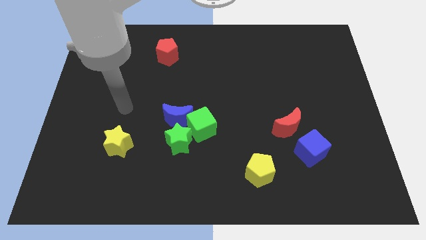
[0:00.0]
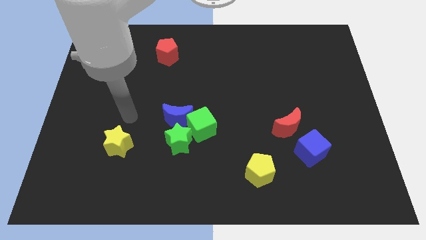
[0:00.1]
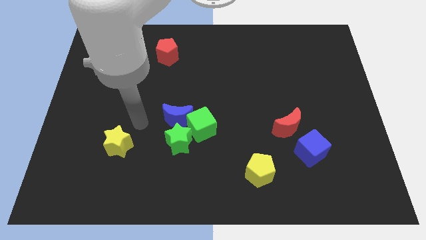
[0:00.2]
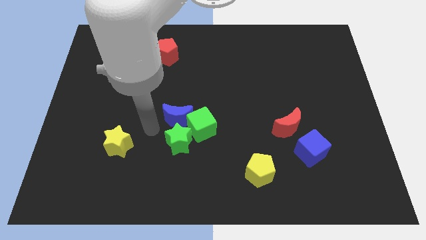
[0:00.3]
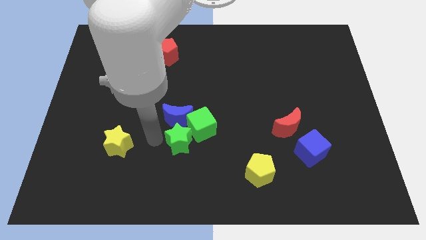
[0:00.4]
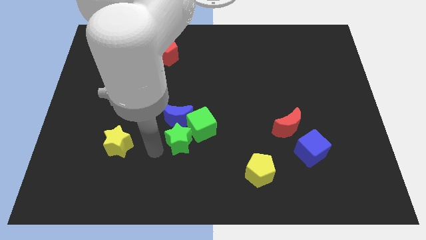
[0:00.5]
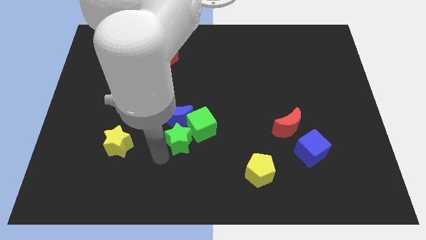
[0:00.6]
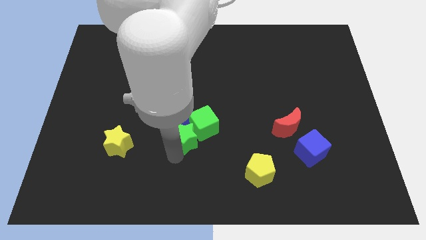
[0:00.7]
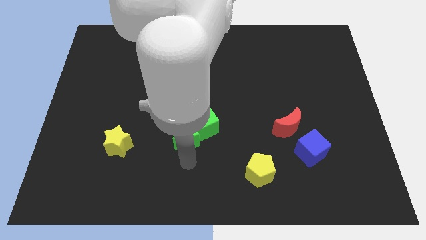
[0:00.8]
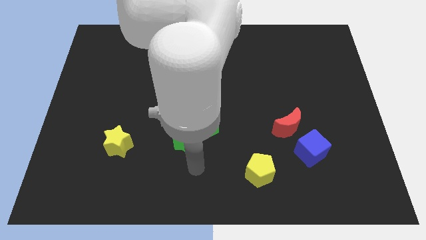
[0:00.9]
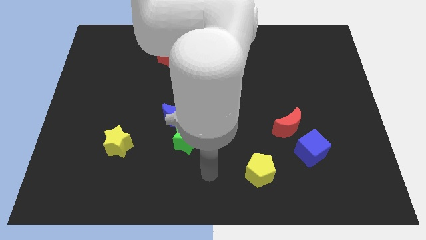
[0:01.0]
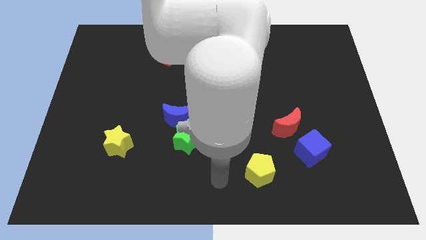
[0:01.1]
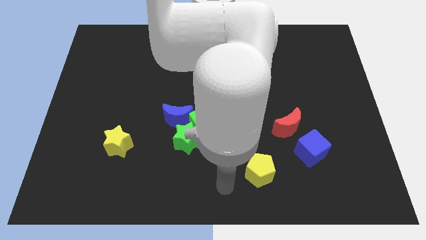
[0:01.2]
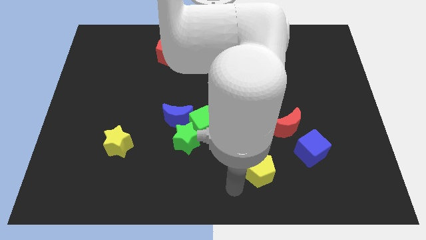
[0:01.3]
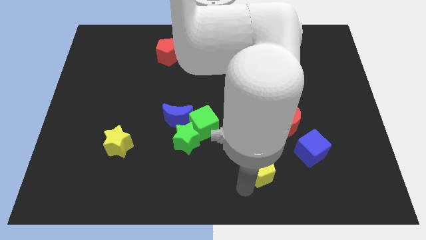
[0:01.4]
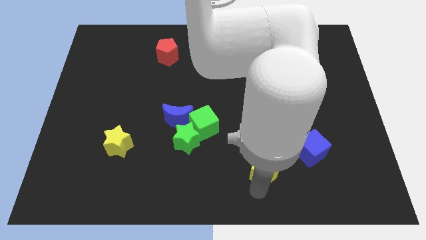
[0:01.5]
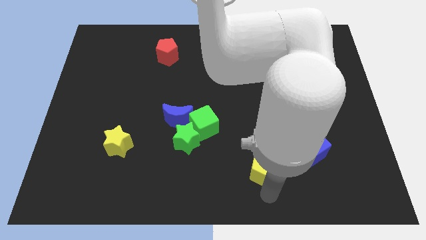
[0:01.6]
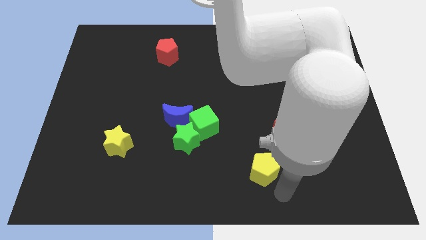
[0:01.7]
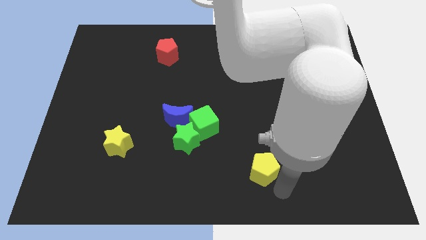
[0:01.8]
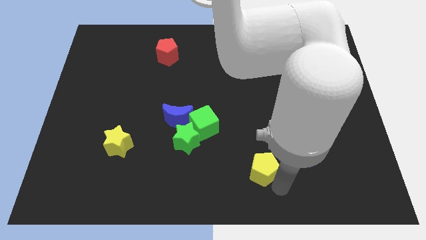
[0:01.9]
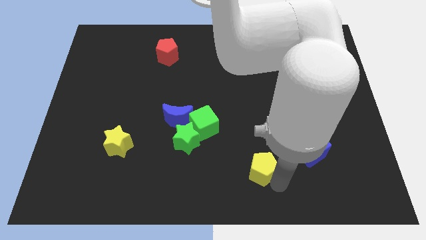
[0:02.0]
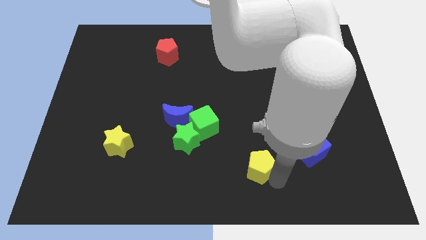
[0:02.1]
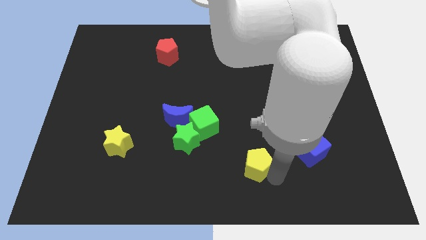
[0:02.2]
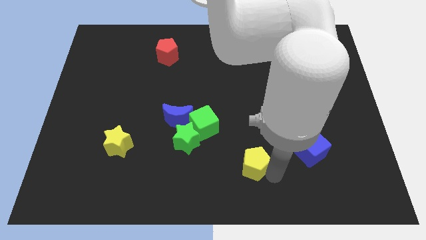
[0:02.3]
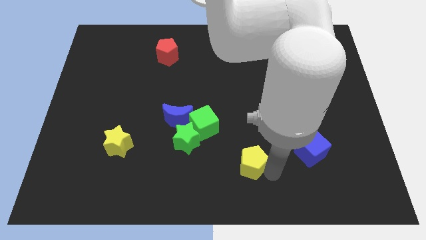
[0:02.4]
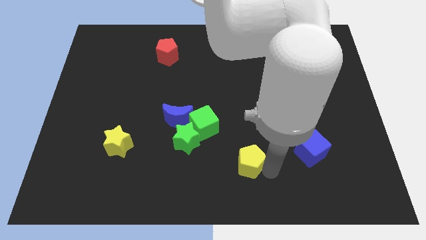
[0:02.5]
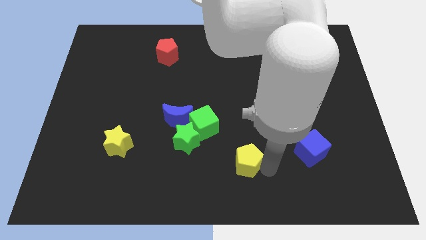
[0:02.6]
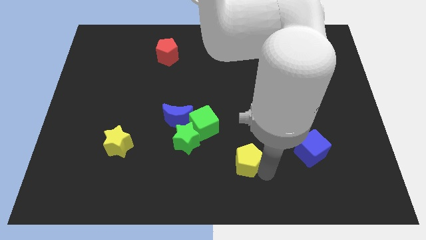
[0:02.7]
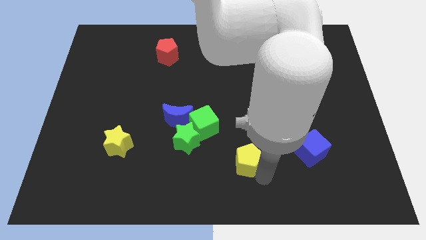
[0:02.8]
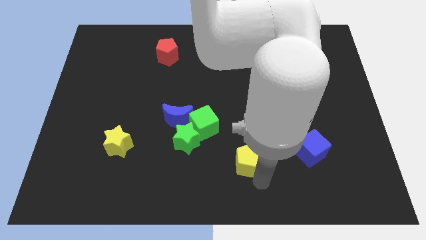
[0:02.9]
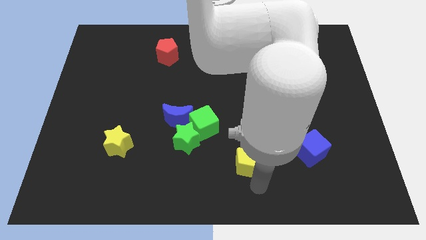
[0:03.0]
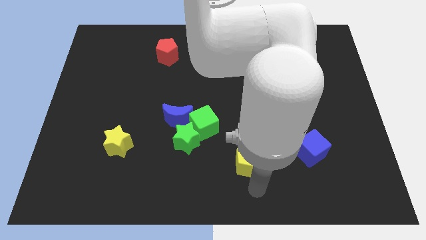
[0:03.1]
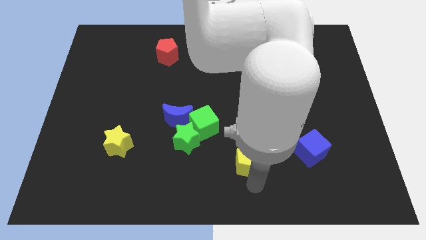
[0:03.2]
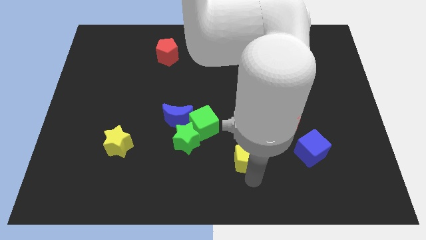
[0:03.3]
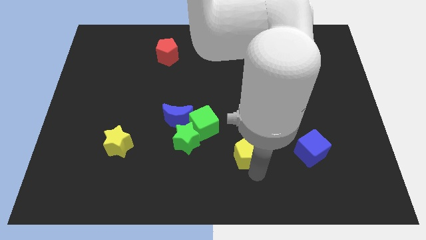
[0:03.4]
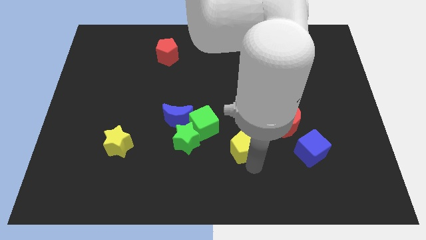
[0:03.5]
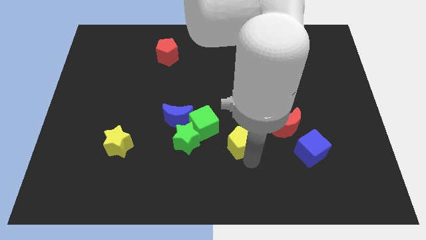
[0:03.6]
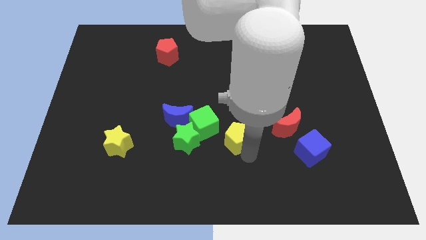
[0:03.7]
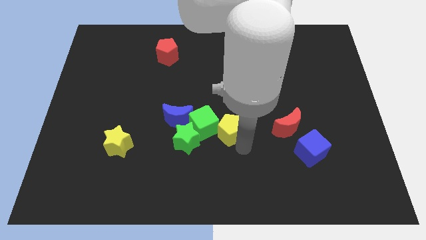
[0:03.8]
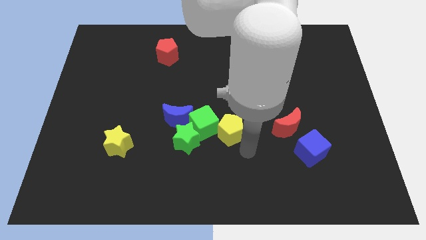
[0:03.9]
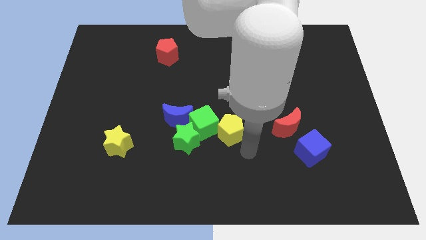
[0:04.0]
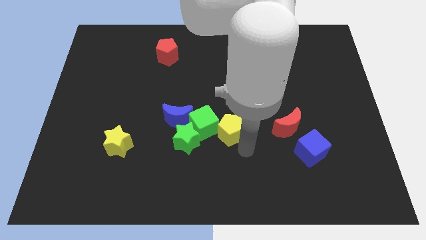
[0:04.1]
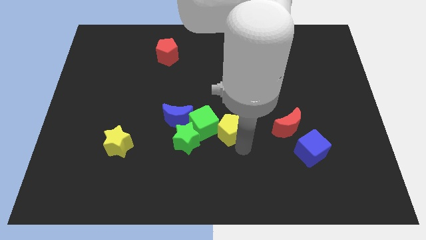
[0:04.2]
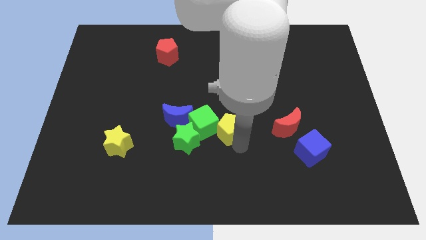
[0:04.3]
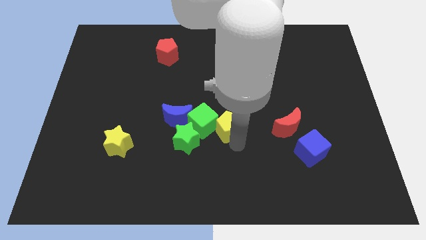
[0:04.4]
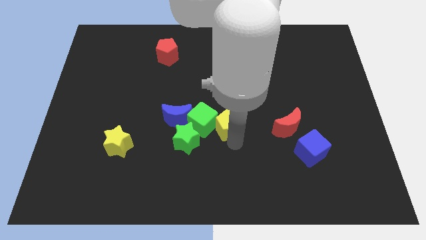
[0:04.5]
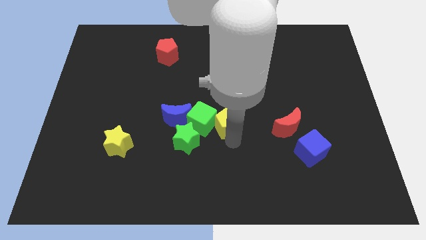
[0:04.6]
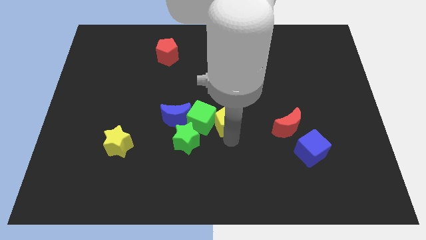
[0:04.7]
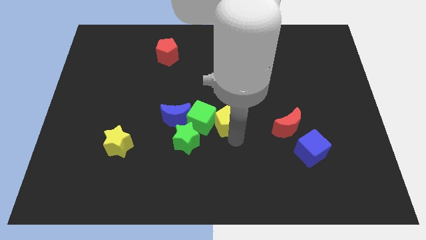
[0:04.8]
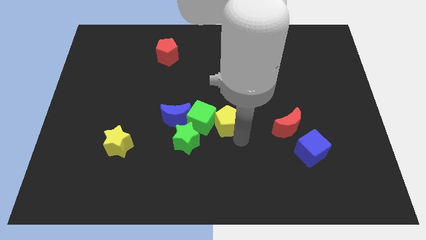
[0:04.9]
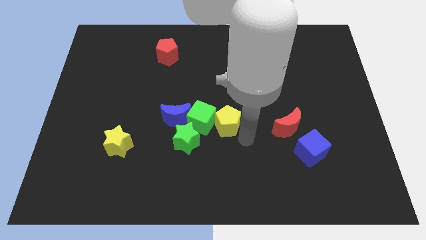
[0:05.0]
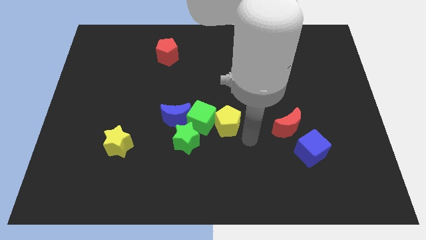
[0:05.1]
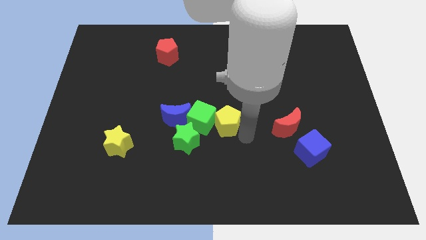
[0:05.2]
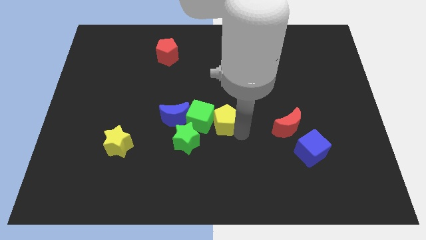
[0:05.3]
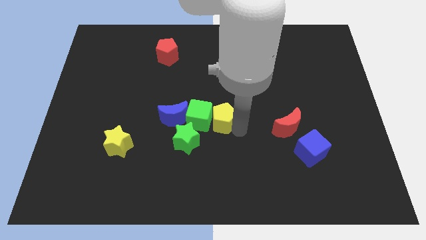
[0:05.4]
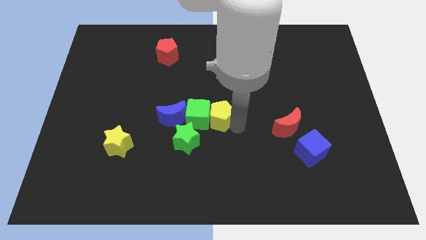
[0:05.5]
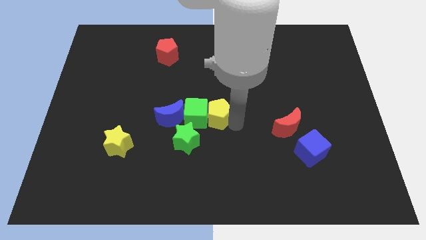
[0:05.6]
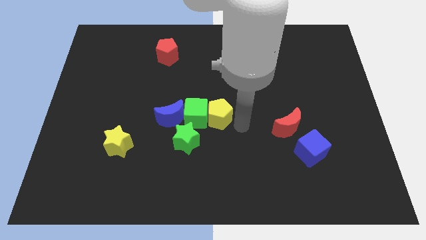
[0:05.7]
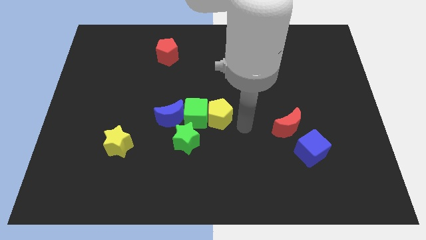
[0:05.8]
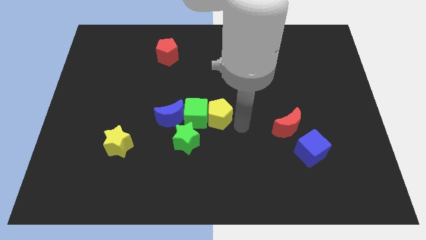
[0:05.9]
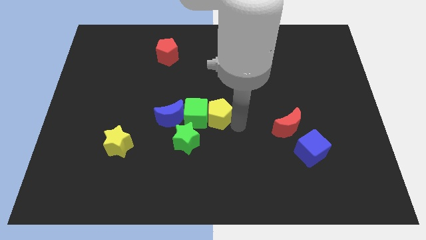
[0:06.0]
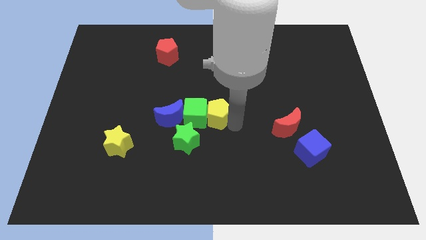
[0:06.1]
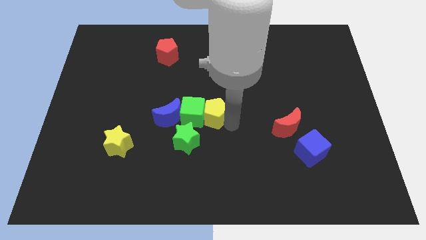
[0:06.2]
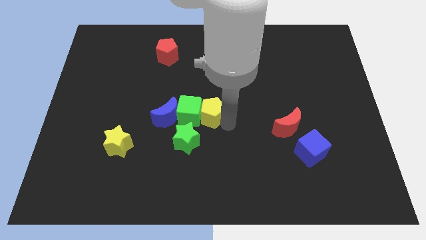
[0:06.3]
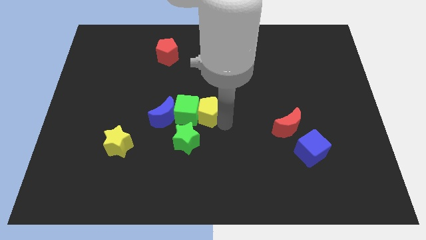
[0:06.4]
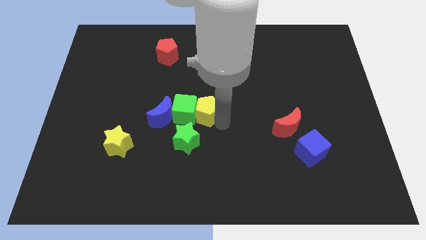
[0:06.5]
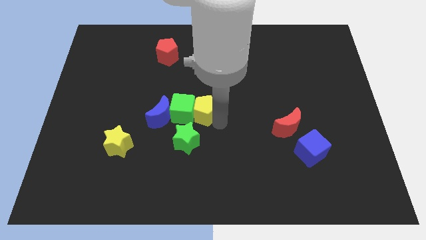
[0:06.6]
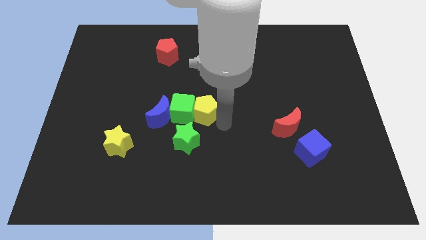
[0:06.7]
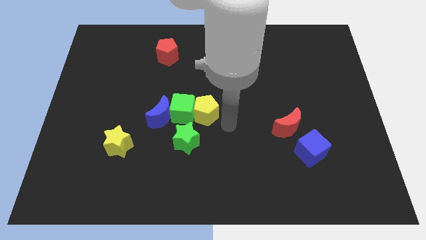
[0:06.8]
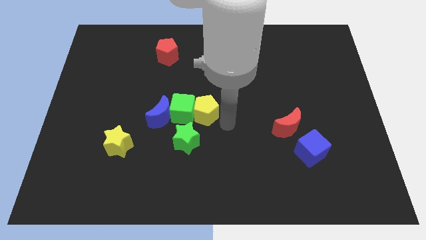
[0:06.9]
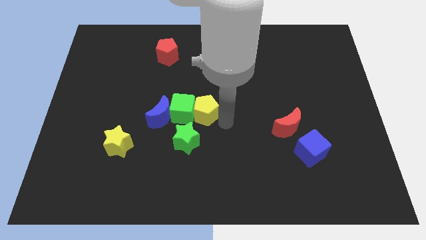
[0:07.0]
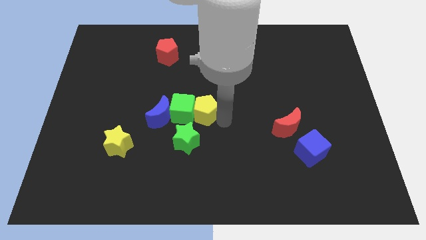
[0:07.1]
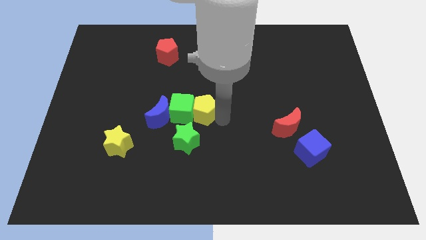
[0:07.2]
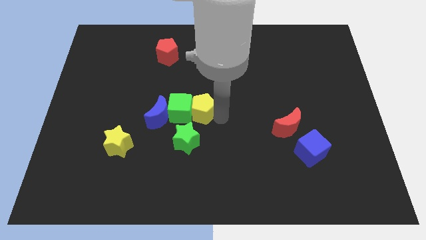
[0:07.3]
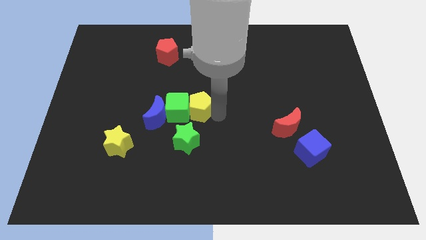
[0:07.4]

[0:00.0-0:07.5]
slide the yellow pentagon upwards and to the left
